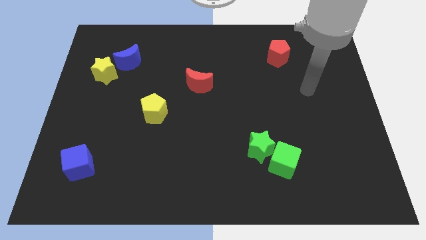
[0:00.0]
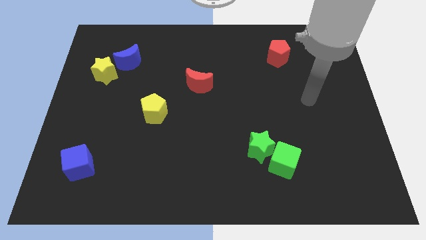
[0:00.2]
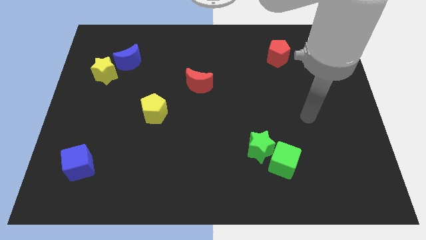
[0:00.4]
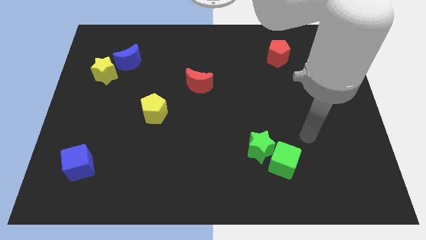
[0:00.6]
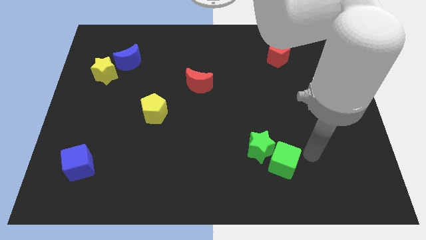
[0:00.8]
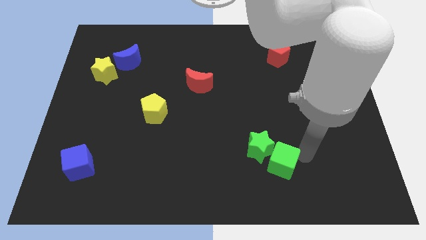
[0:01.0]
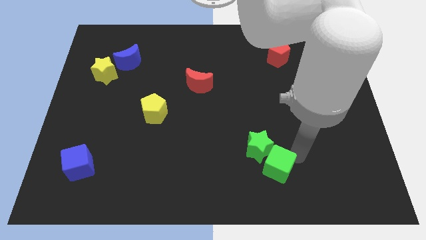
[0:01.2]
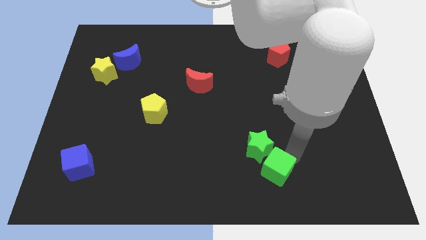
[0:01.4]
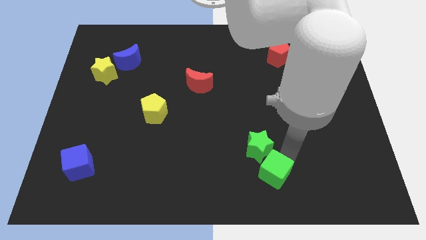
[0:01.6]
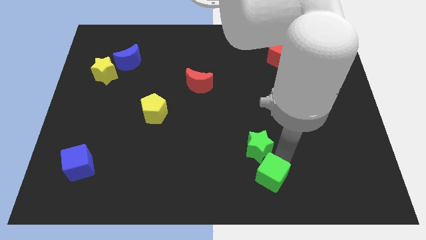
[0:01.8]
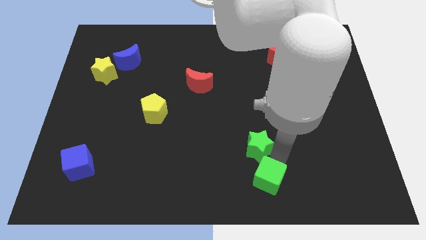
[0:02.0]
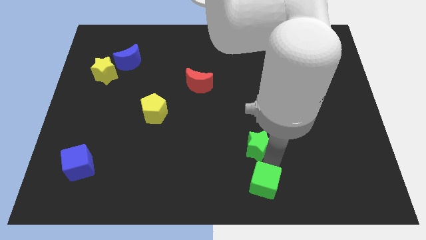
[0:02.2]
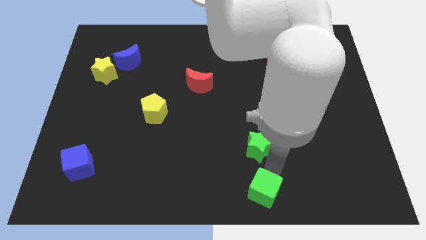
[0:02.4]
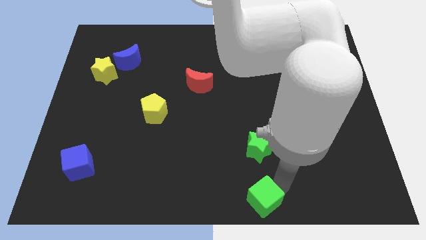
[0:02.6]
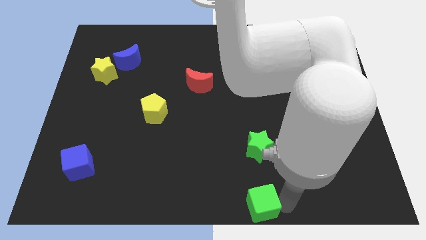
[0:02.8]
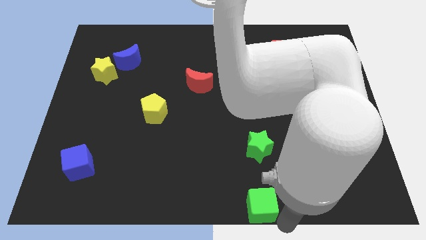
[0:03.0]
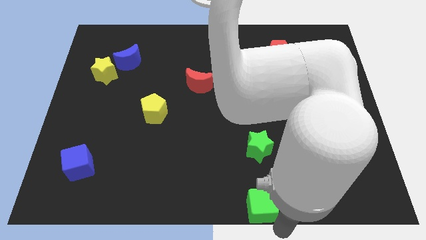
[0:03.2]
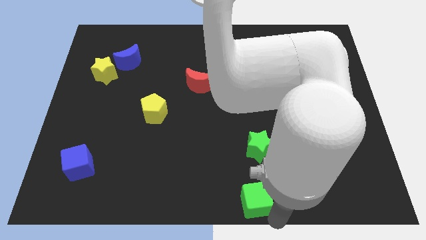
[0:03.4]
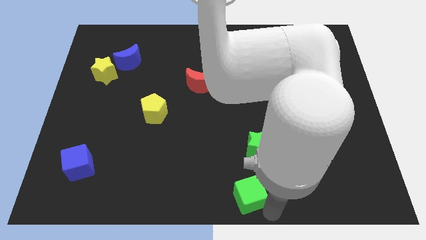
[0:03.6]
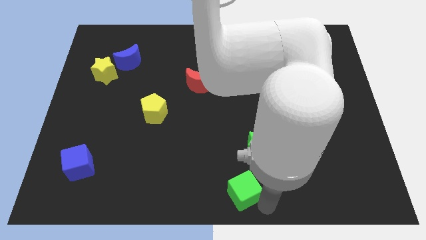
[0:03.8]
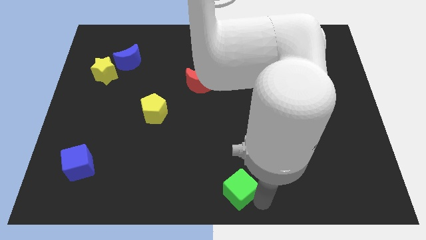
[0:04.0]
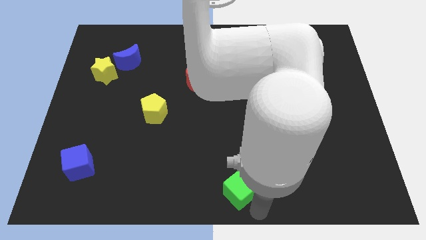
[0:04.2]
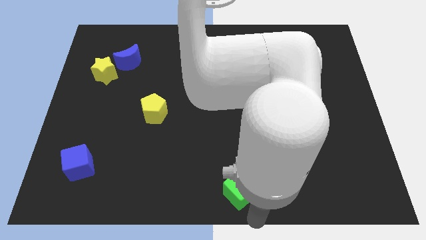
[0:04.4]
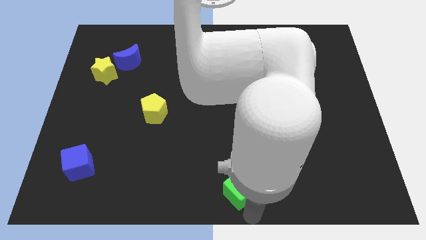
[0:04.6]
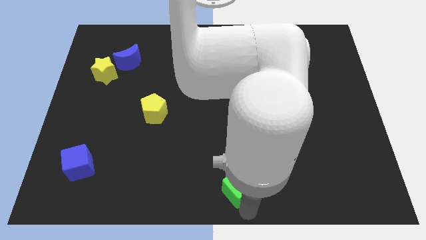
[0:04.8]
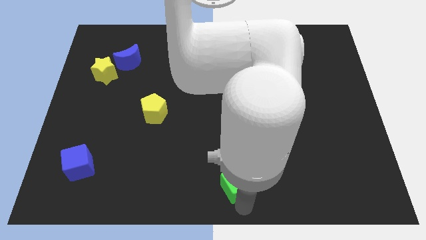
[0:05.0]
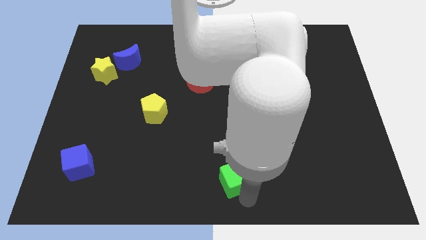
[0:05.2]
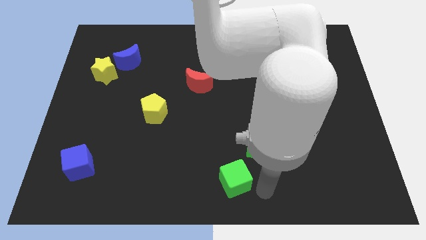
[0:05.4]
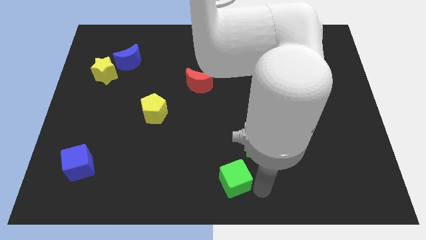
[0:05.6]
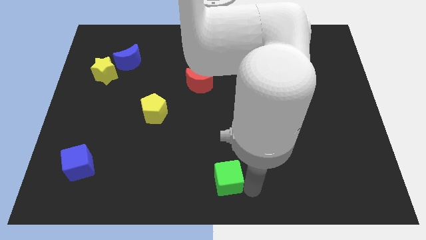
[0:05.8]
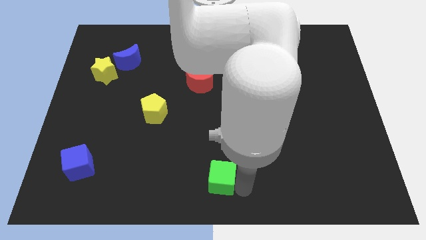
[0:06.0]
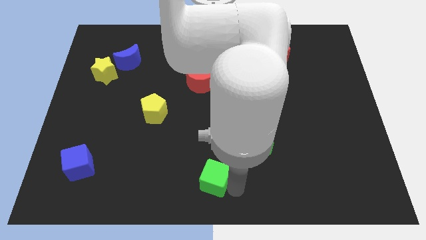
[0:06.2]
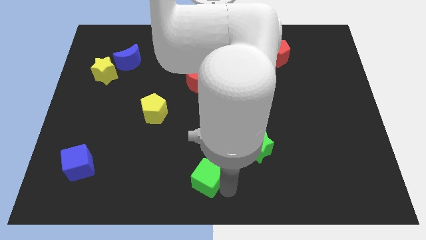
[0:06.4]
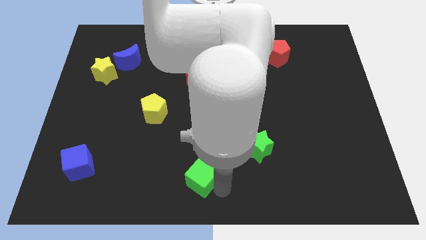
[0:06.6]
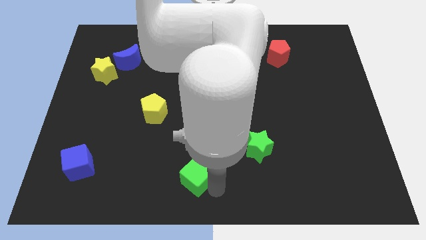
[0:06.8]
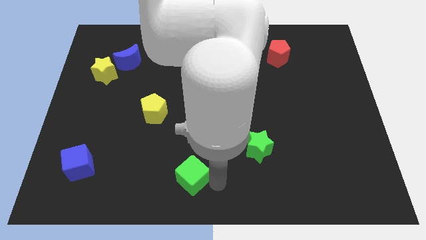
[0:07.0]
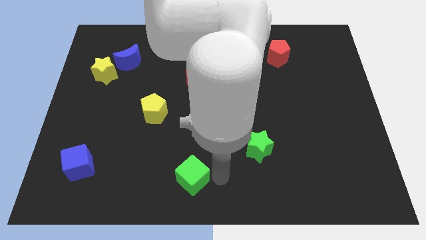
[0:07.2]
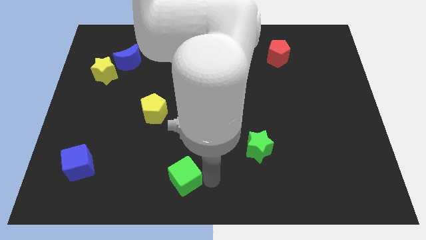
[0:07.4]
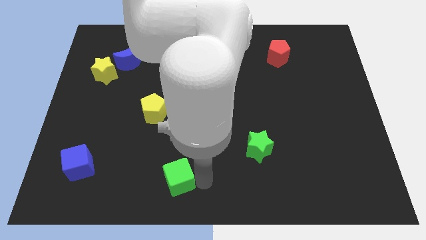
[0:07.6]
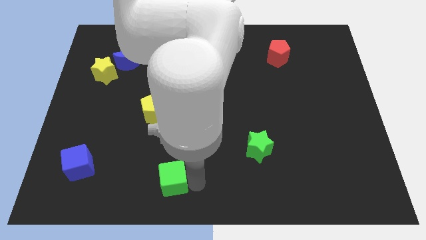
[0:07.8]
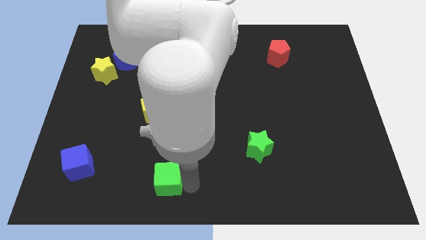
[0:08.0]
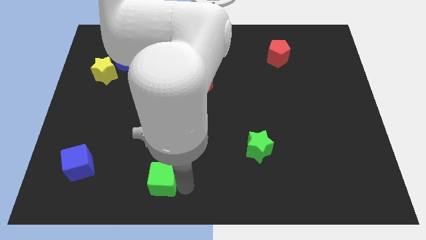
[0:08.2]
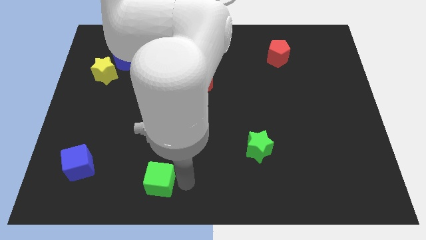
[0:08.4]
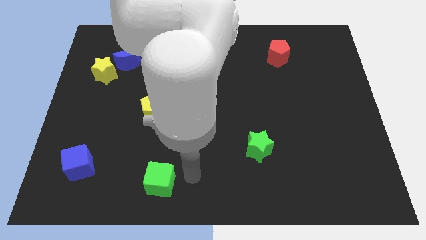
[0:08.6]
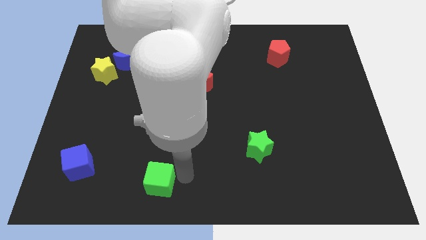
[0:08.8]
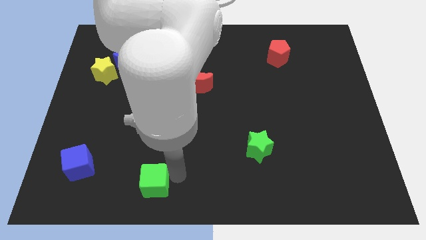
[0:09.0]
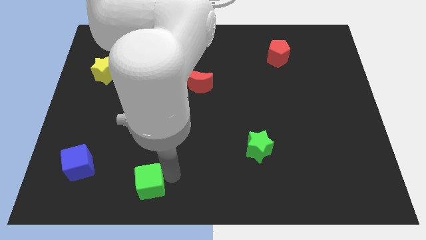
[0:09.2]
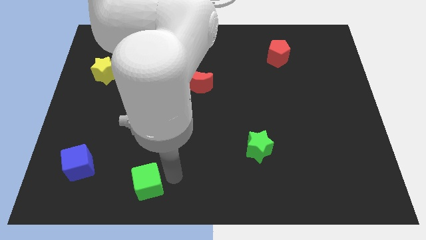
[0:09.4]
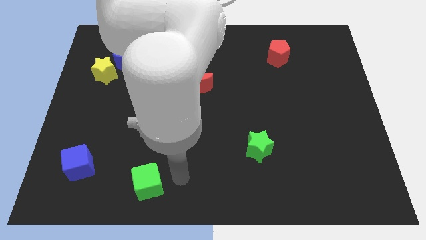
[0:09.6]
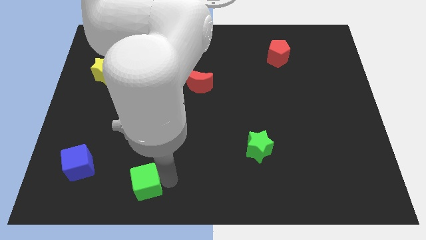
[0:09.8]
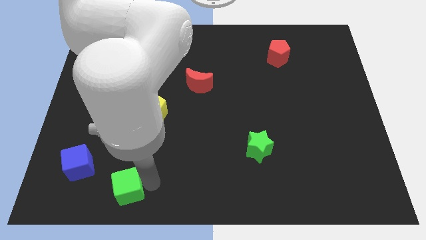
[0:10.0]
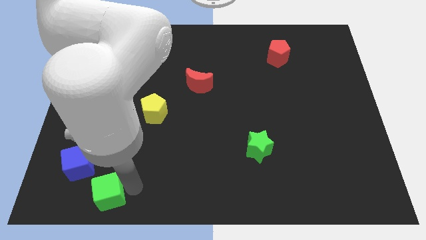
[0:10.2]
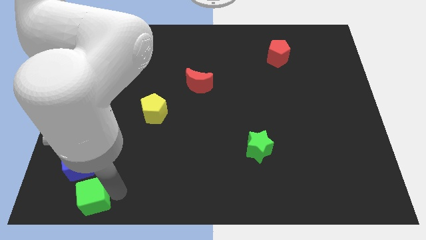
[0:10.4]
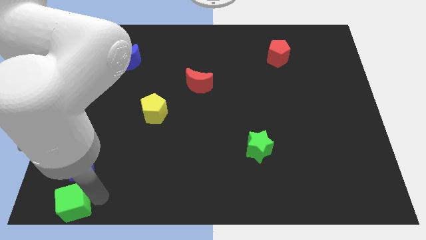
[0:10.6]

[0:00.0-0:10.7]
push the green cube to the bottom left corner

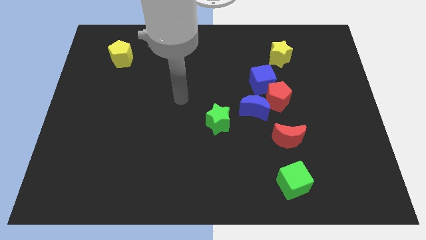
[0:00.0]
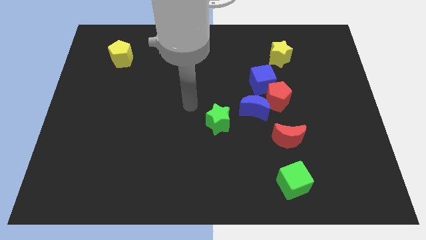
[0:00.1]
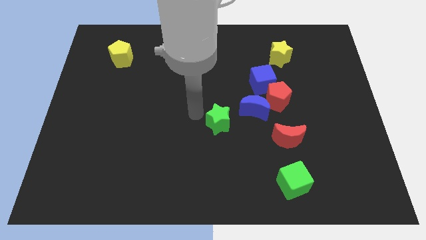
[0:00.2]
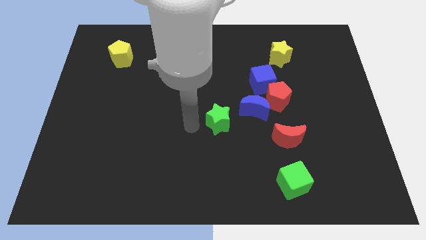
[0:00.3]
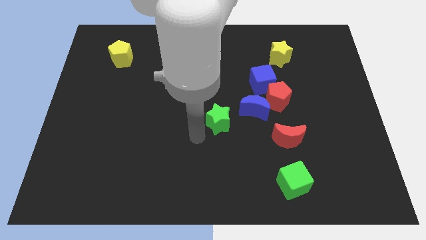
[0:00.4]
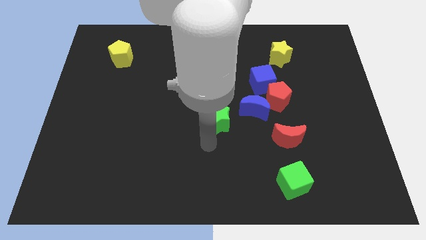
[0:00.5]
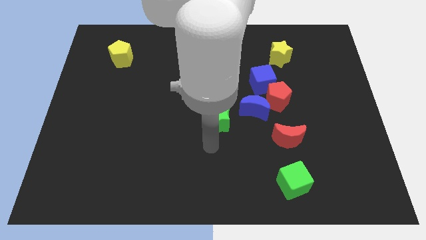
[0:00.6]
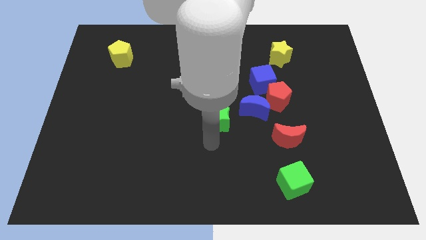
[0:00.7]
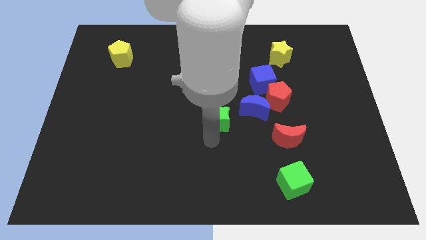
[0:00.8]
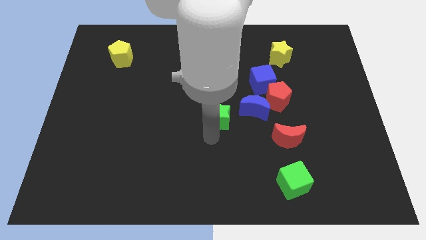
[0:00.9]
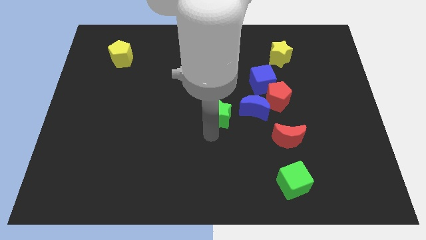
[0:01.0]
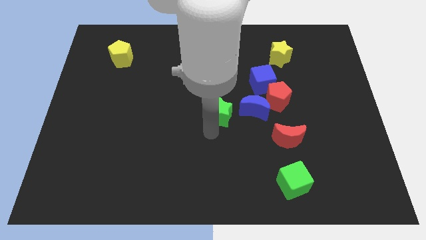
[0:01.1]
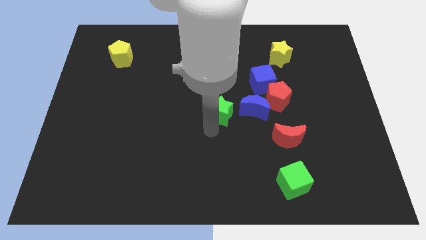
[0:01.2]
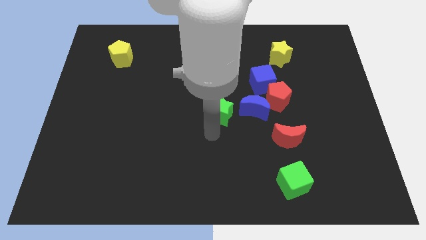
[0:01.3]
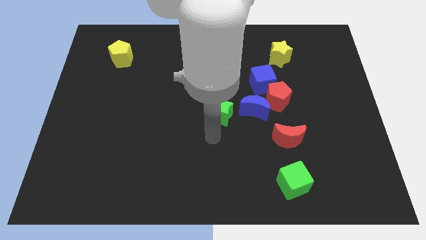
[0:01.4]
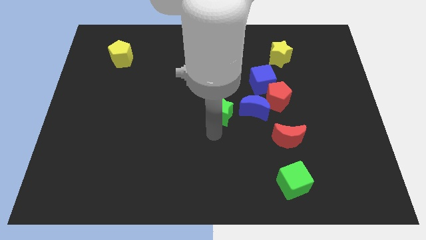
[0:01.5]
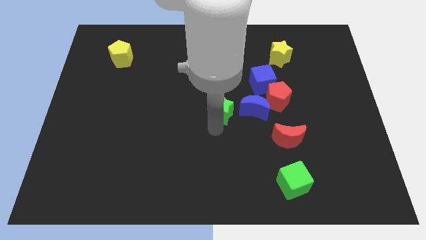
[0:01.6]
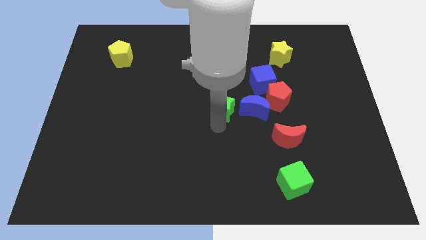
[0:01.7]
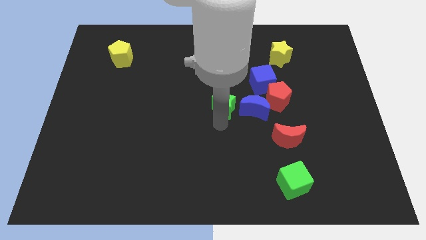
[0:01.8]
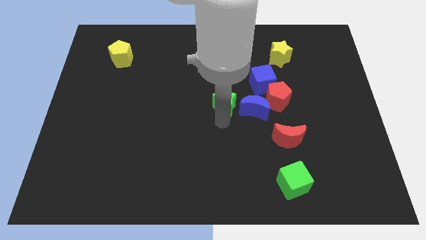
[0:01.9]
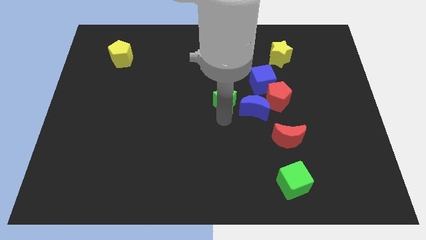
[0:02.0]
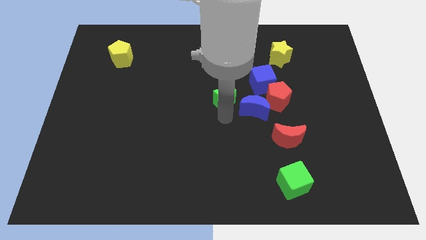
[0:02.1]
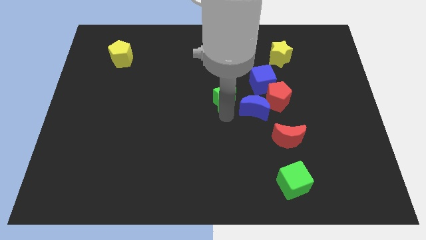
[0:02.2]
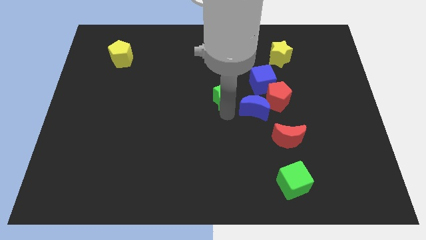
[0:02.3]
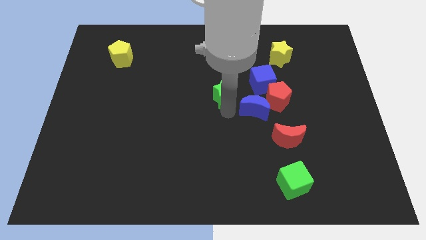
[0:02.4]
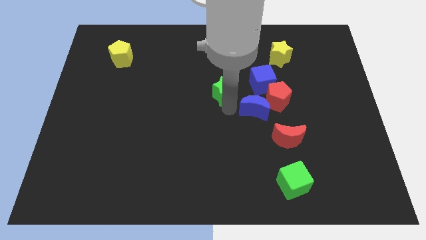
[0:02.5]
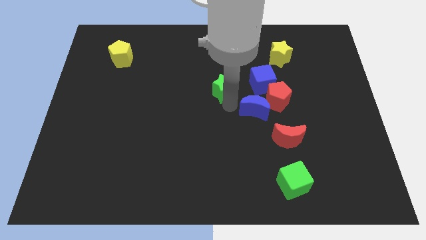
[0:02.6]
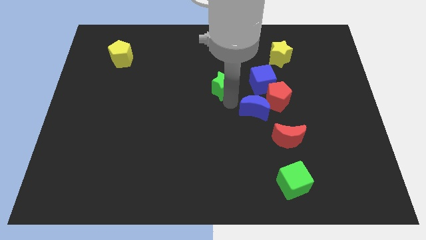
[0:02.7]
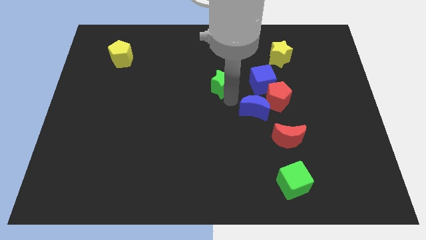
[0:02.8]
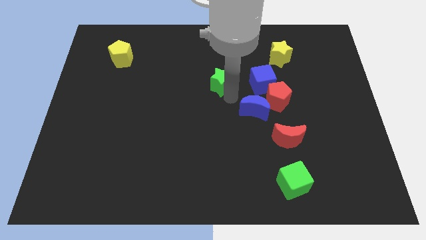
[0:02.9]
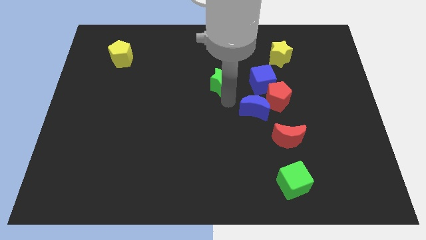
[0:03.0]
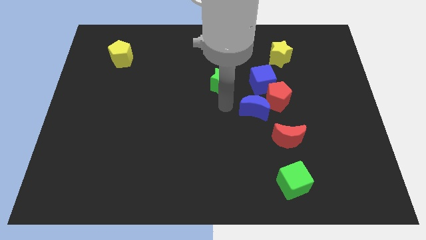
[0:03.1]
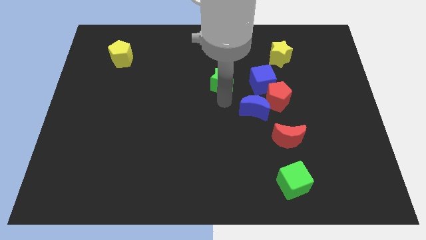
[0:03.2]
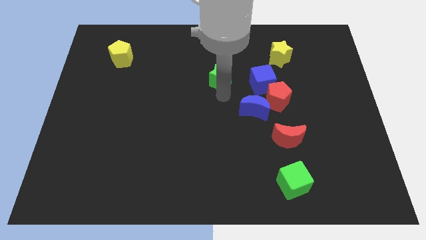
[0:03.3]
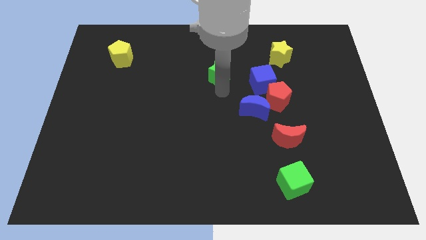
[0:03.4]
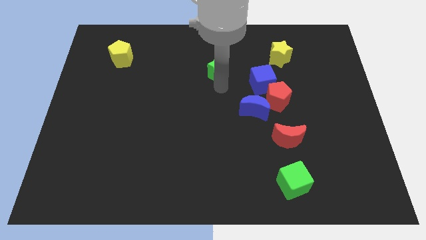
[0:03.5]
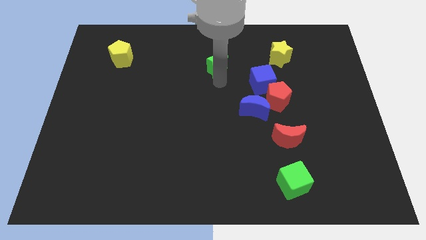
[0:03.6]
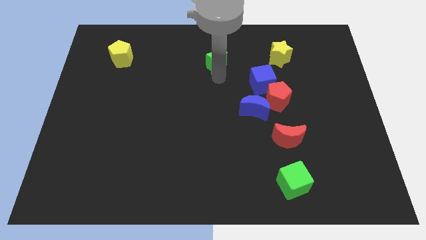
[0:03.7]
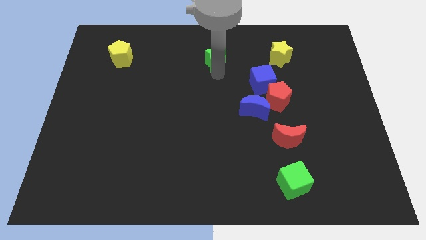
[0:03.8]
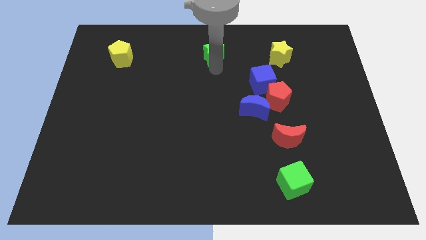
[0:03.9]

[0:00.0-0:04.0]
push the green star to the towards your base
